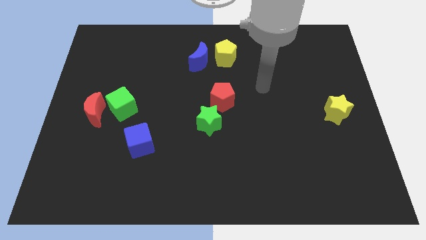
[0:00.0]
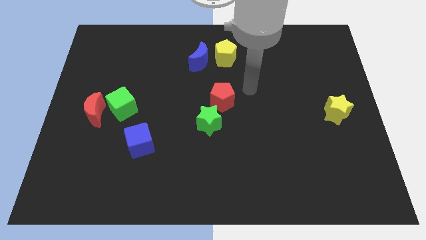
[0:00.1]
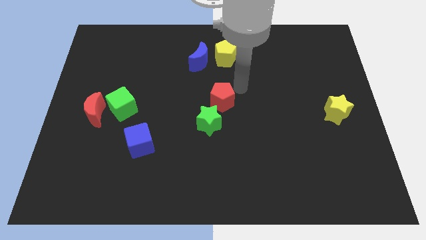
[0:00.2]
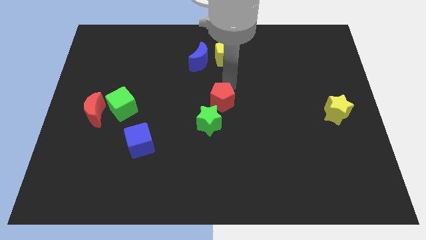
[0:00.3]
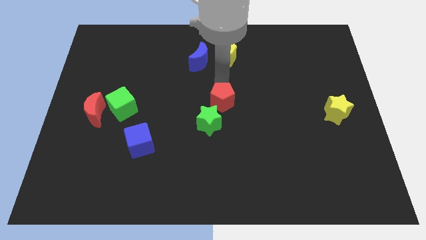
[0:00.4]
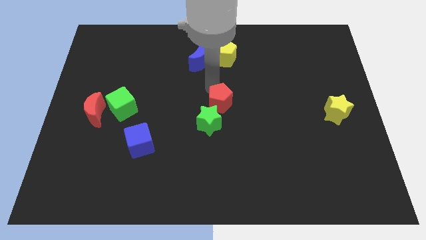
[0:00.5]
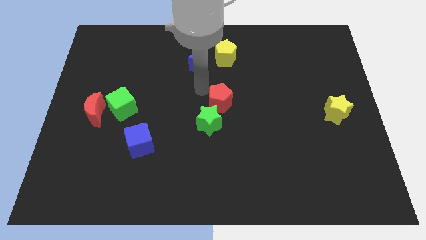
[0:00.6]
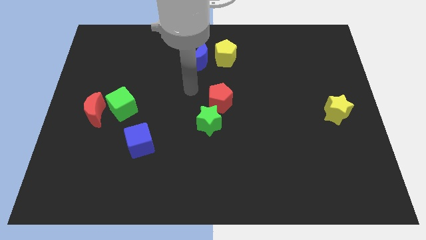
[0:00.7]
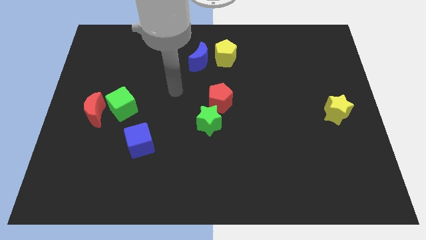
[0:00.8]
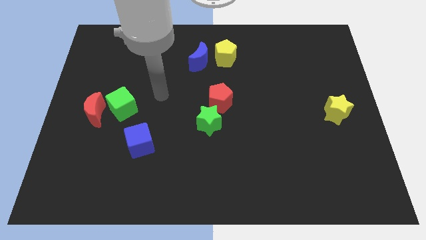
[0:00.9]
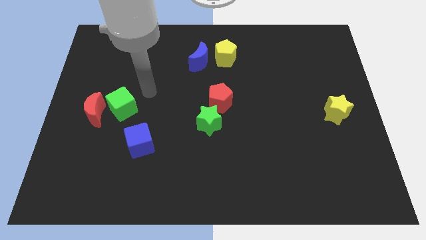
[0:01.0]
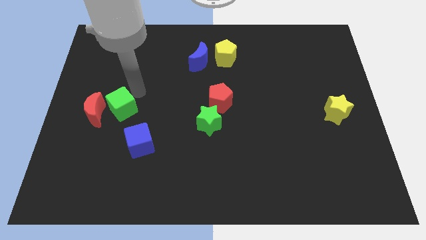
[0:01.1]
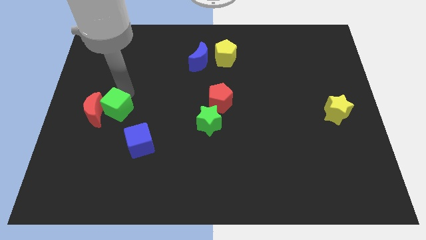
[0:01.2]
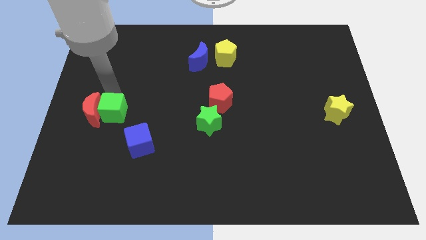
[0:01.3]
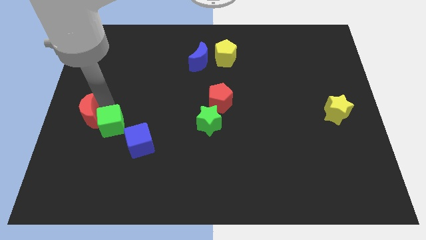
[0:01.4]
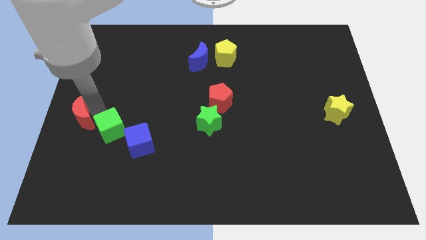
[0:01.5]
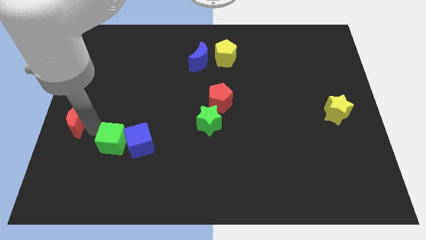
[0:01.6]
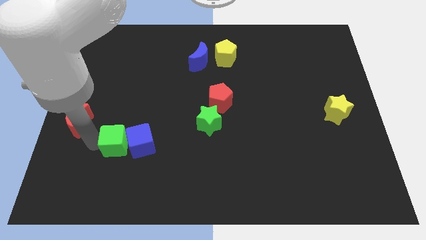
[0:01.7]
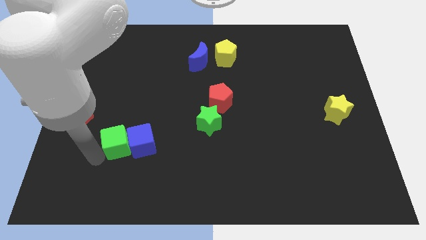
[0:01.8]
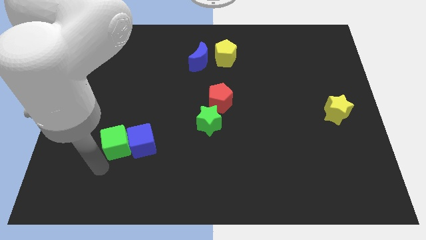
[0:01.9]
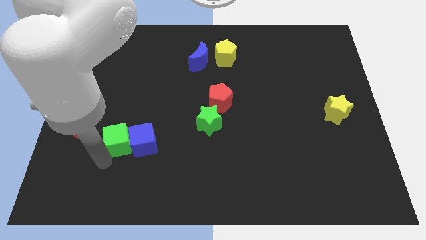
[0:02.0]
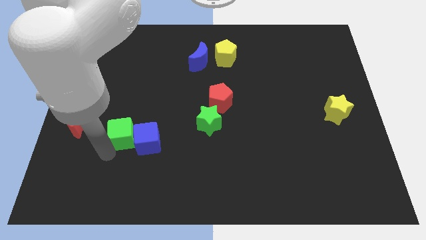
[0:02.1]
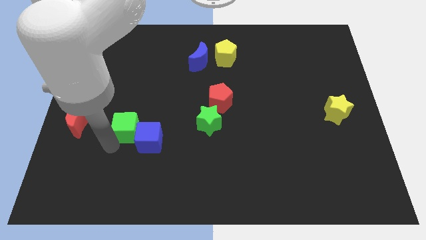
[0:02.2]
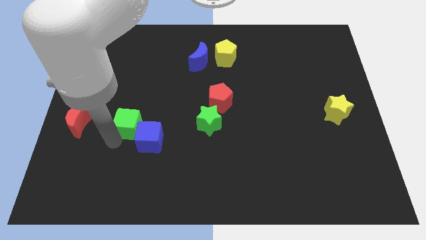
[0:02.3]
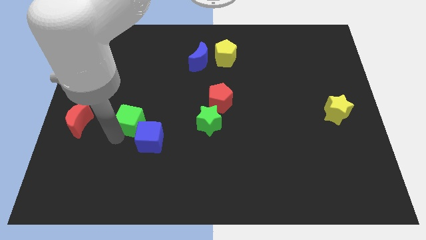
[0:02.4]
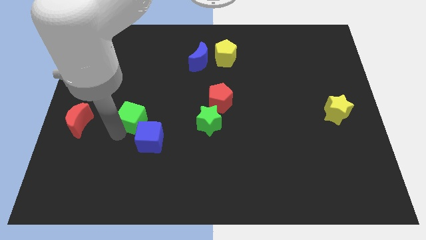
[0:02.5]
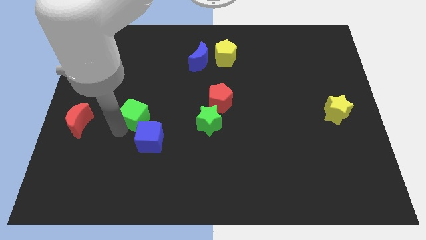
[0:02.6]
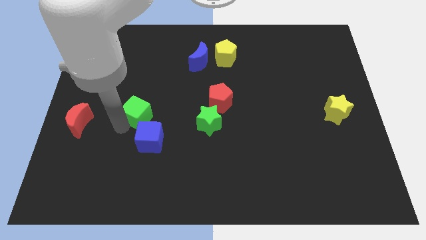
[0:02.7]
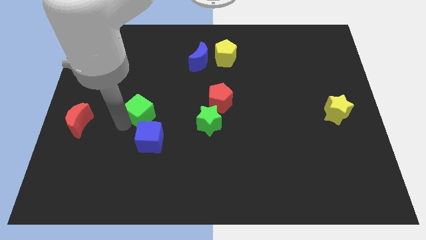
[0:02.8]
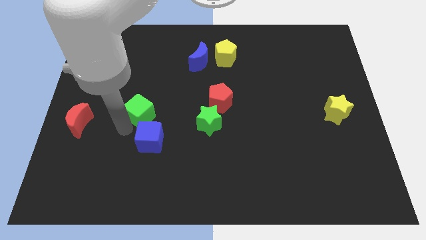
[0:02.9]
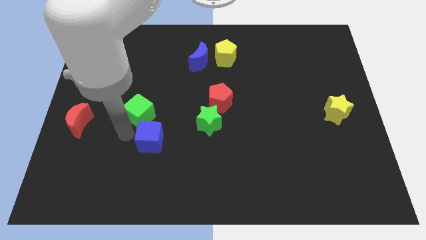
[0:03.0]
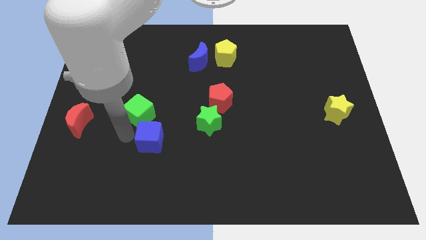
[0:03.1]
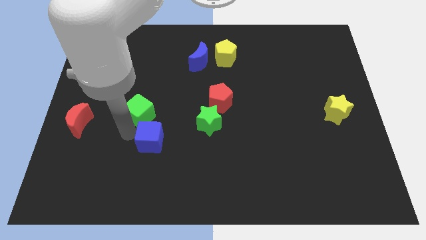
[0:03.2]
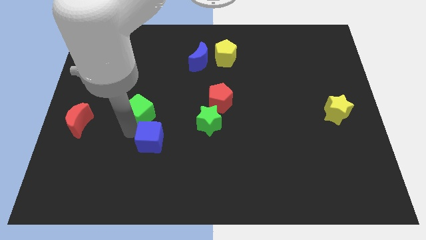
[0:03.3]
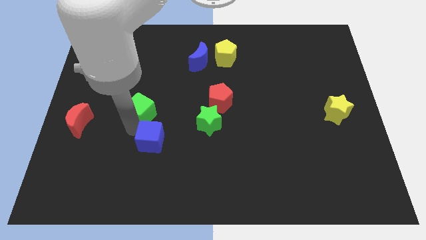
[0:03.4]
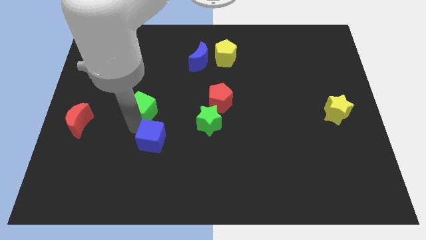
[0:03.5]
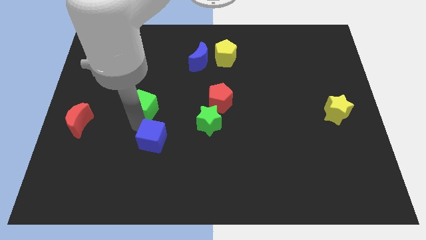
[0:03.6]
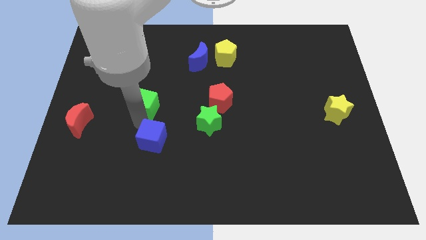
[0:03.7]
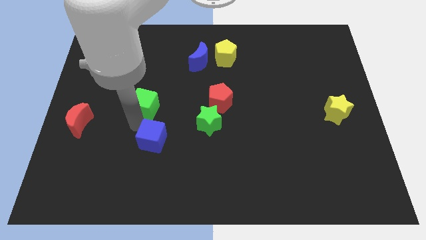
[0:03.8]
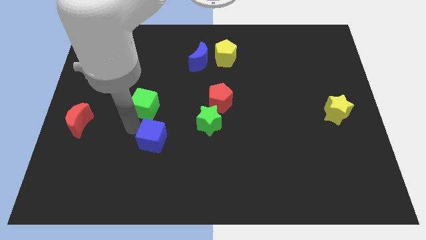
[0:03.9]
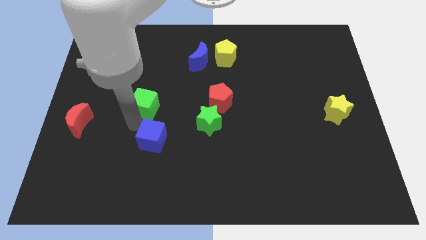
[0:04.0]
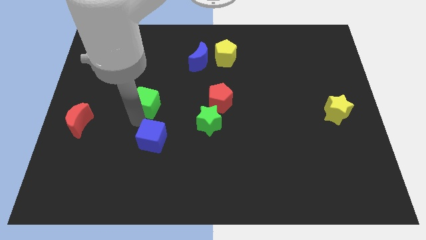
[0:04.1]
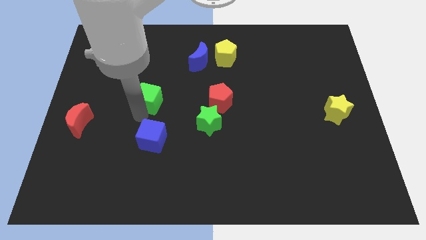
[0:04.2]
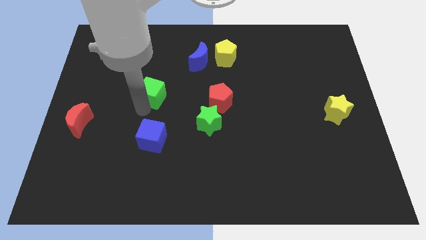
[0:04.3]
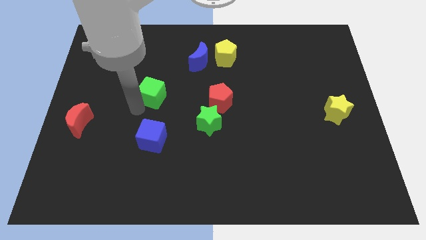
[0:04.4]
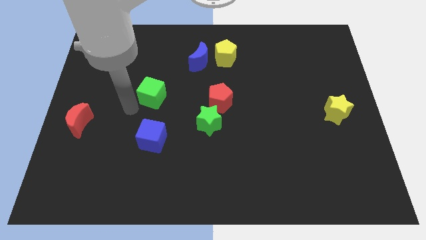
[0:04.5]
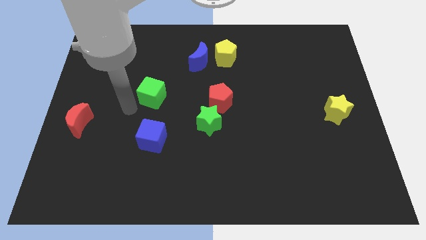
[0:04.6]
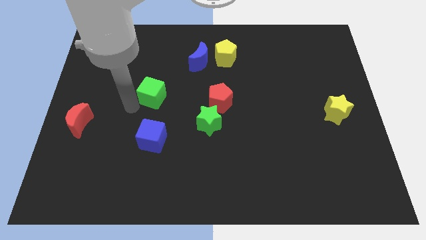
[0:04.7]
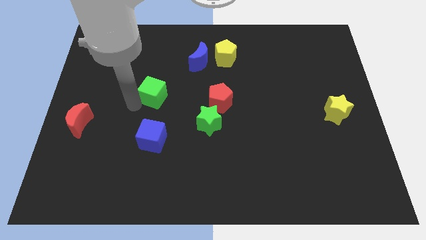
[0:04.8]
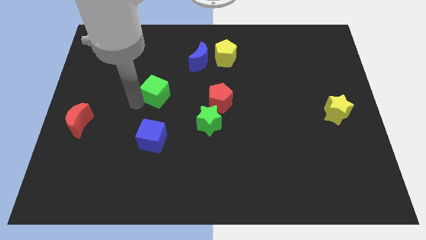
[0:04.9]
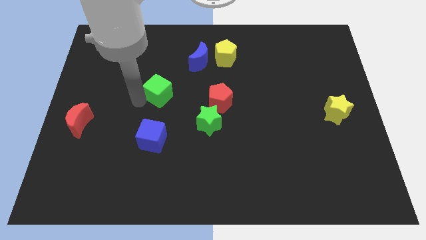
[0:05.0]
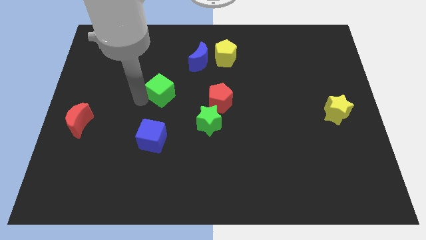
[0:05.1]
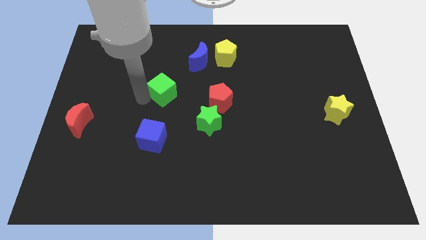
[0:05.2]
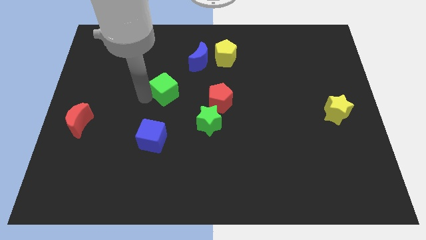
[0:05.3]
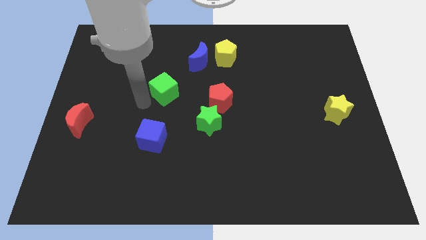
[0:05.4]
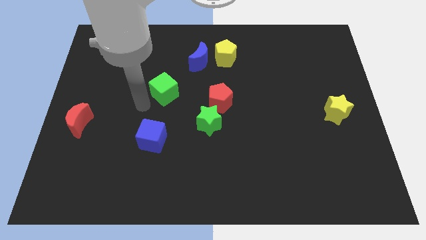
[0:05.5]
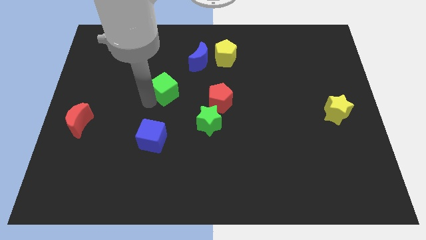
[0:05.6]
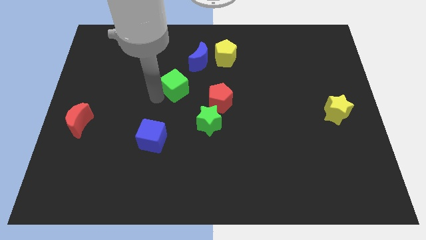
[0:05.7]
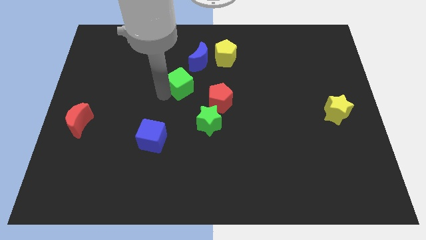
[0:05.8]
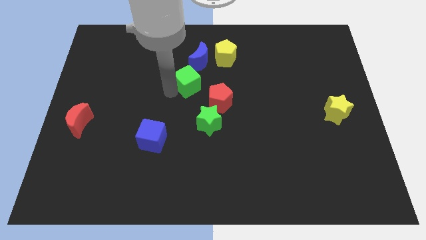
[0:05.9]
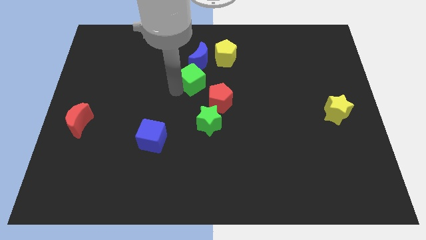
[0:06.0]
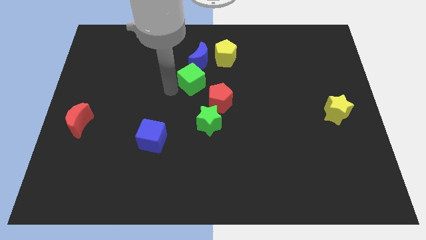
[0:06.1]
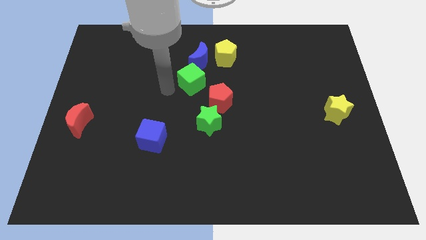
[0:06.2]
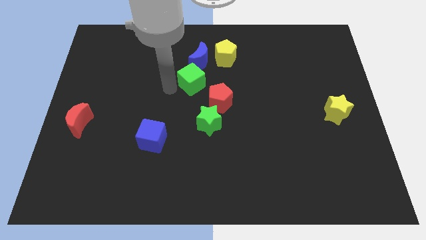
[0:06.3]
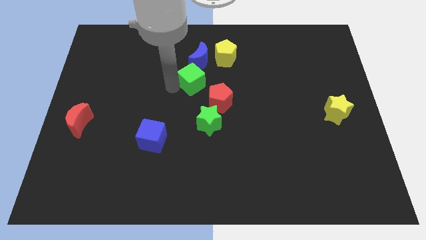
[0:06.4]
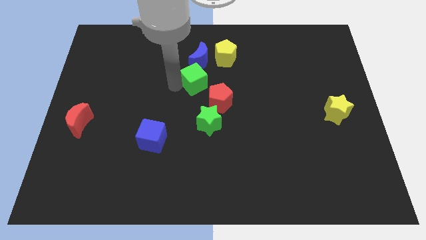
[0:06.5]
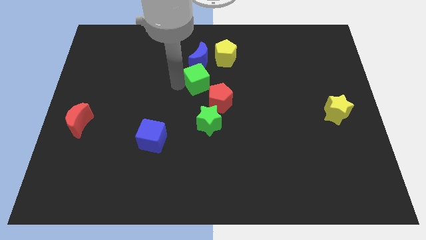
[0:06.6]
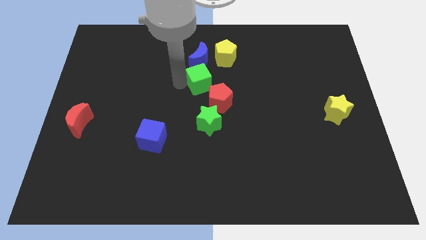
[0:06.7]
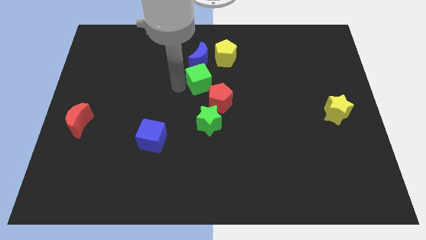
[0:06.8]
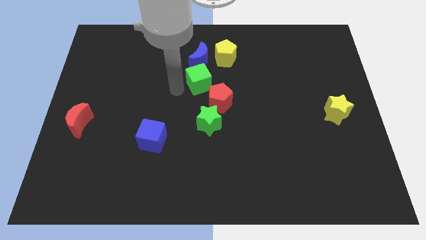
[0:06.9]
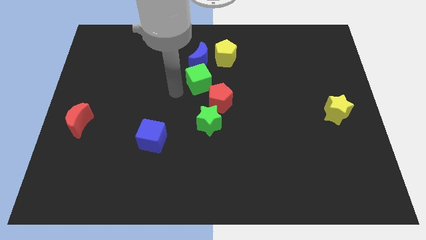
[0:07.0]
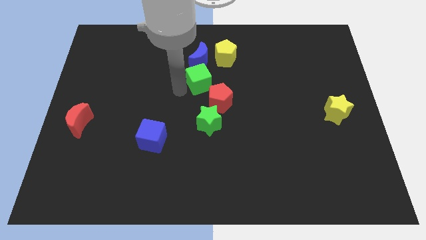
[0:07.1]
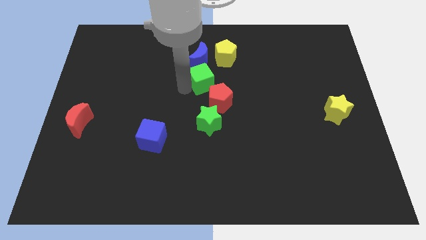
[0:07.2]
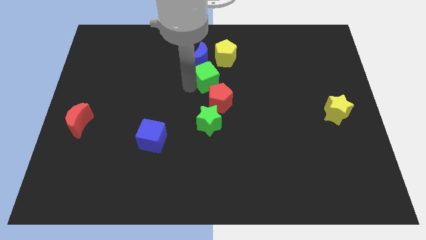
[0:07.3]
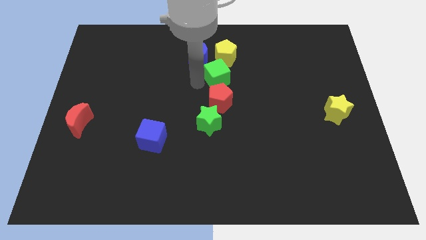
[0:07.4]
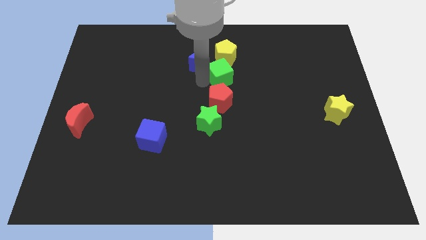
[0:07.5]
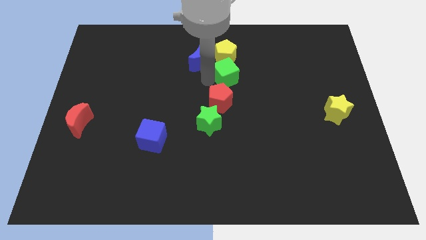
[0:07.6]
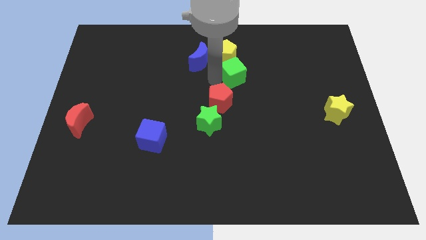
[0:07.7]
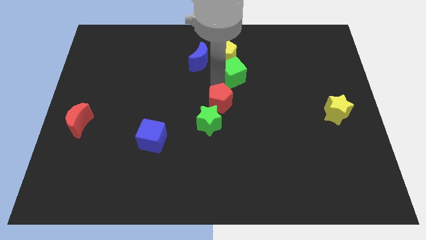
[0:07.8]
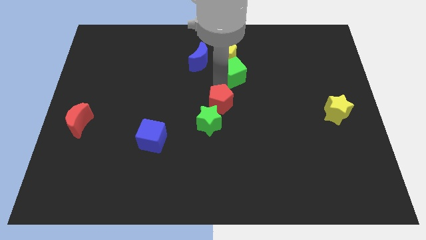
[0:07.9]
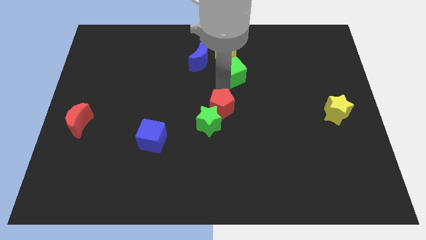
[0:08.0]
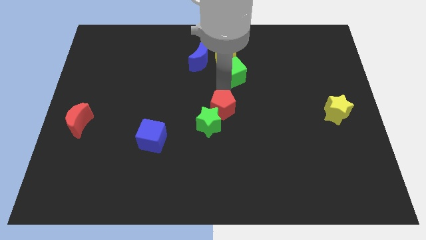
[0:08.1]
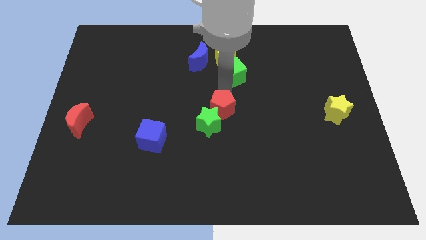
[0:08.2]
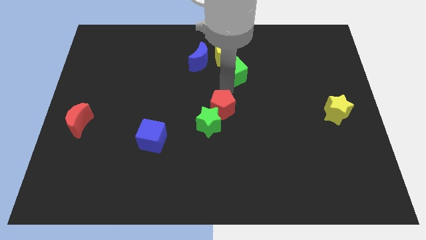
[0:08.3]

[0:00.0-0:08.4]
move the green cube to the right side of the blue moon

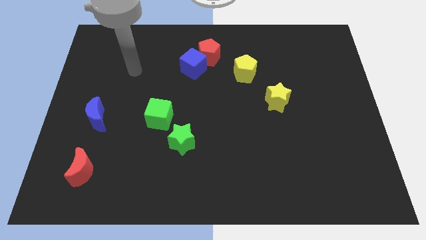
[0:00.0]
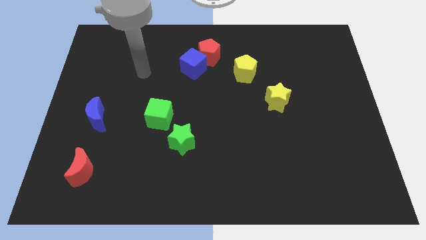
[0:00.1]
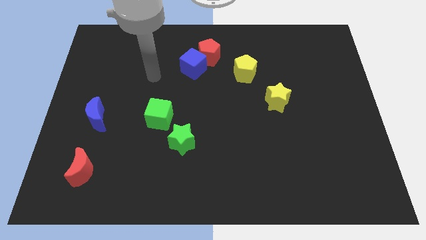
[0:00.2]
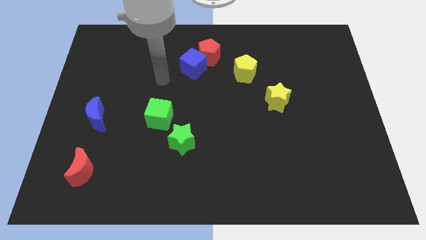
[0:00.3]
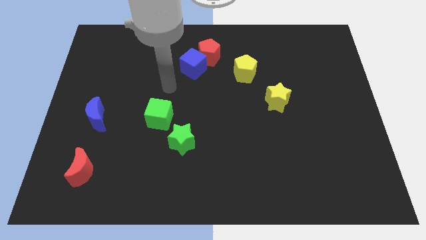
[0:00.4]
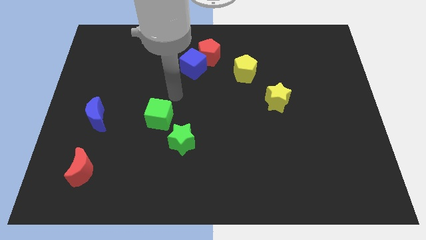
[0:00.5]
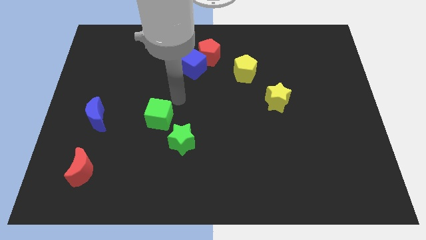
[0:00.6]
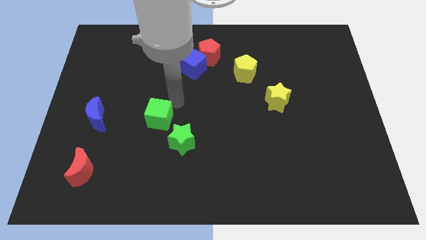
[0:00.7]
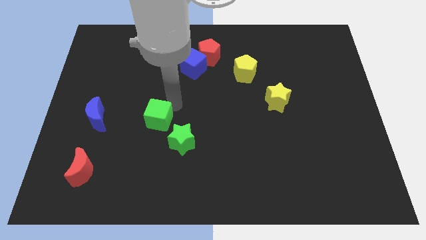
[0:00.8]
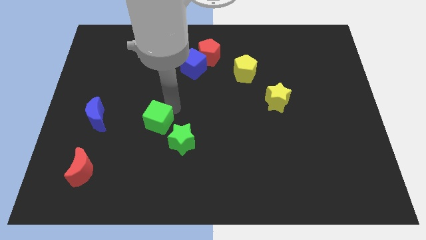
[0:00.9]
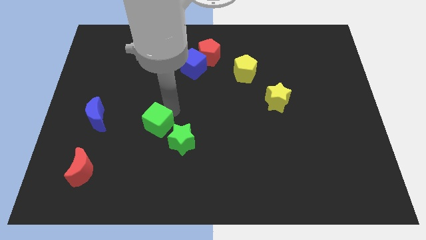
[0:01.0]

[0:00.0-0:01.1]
move the green cube left of the green star
